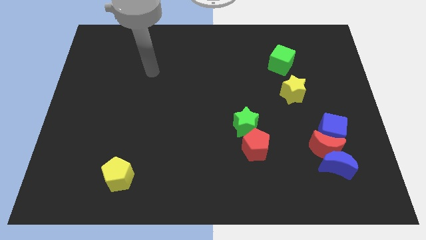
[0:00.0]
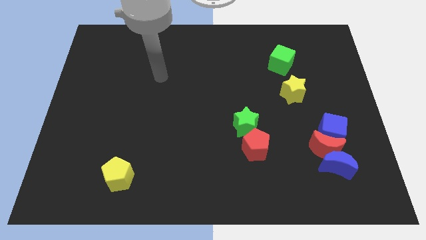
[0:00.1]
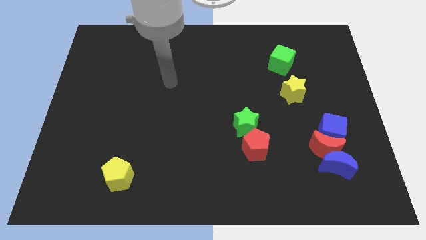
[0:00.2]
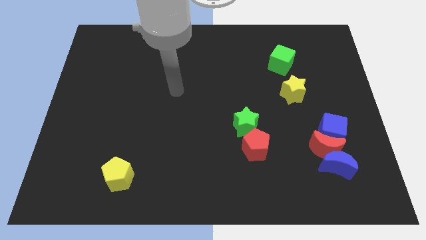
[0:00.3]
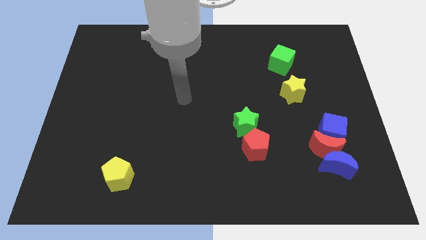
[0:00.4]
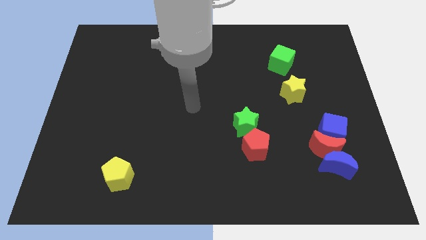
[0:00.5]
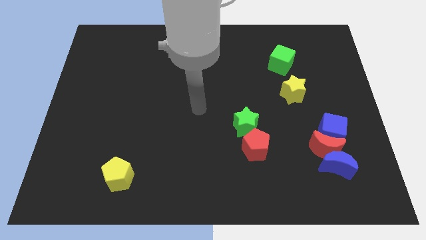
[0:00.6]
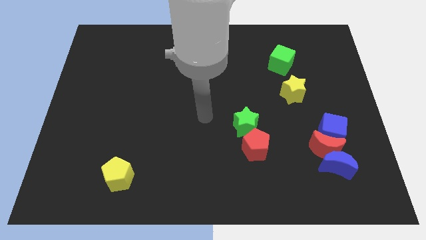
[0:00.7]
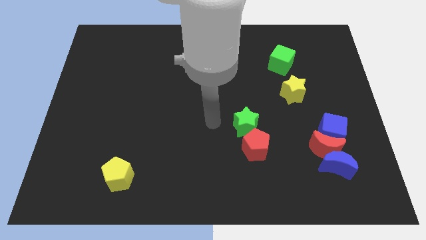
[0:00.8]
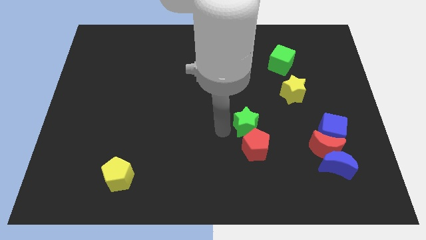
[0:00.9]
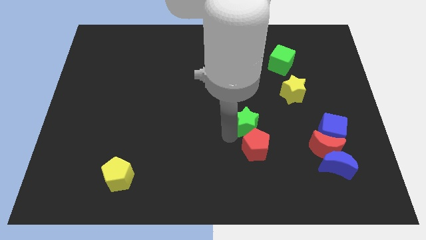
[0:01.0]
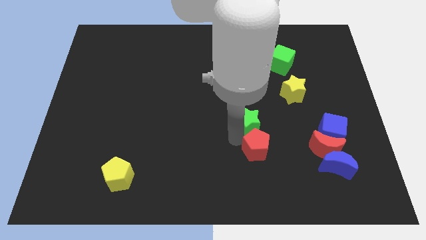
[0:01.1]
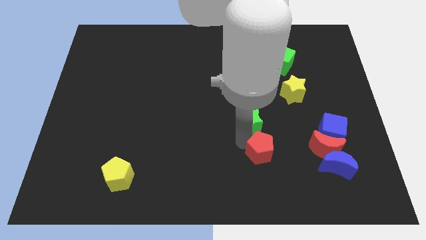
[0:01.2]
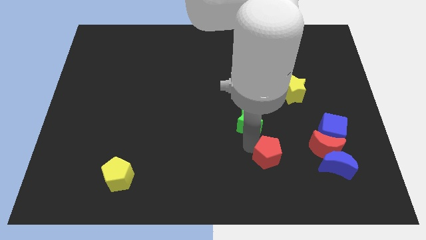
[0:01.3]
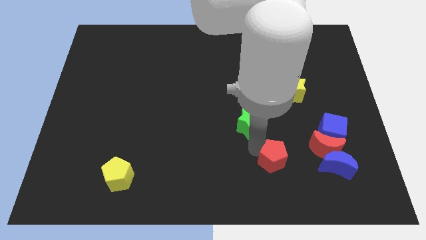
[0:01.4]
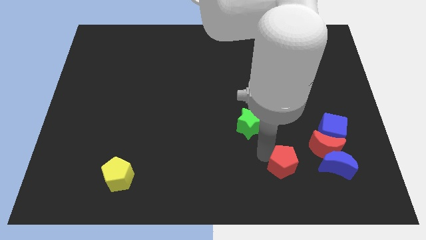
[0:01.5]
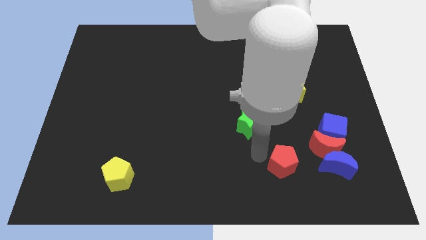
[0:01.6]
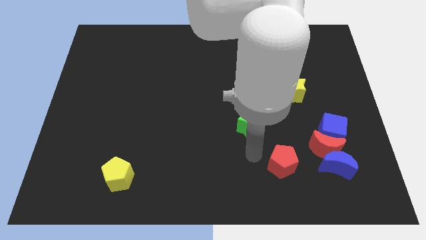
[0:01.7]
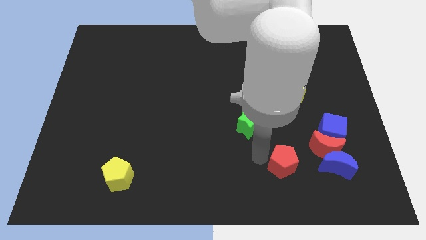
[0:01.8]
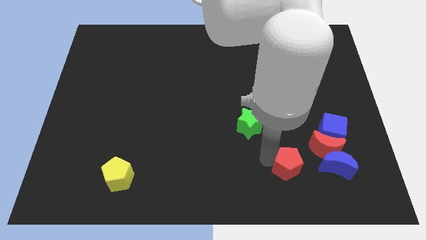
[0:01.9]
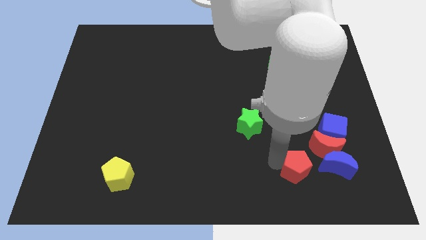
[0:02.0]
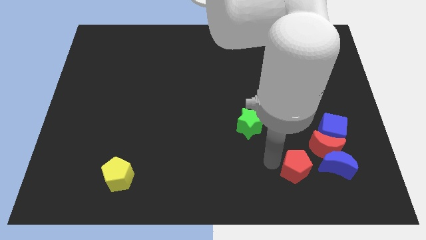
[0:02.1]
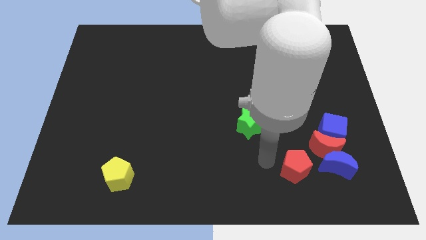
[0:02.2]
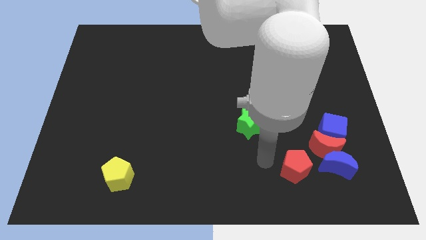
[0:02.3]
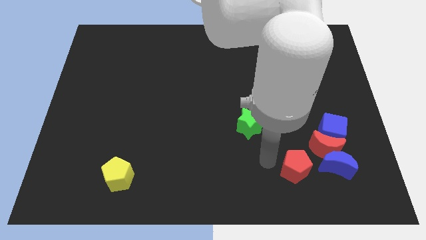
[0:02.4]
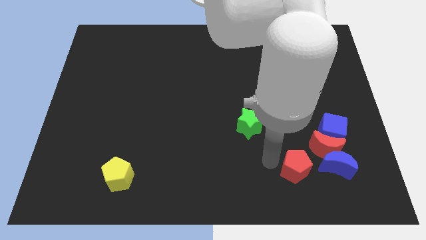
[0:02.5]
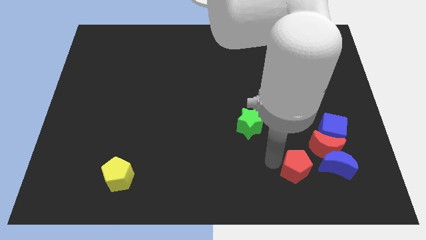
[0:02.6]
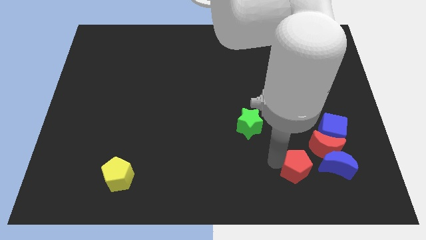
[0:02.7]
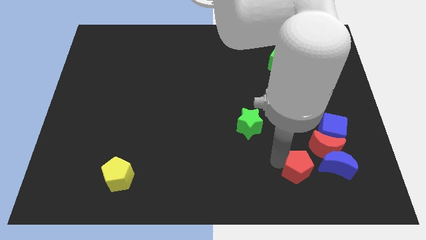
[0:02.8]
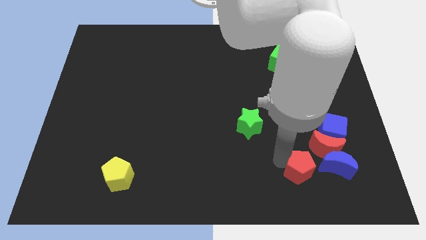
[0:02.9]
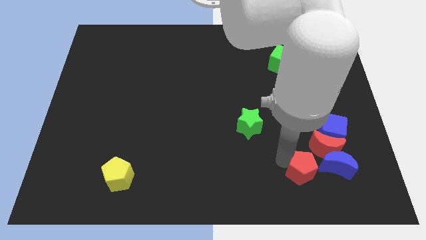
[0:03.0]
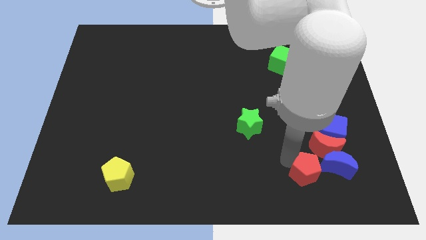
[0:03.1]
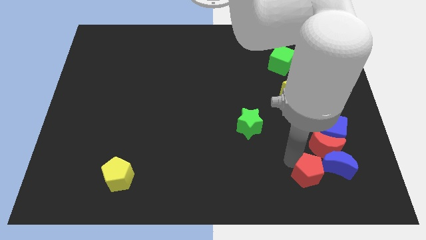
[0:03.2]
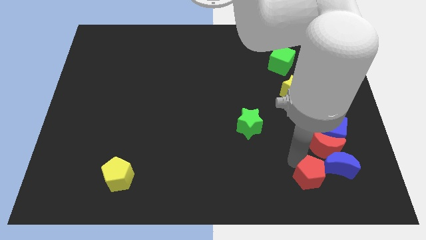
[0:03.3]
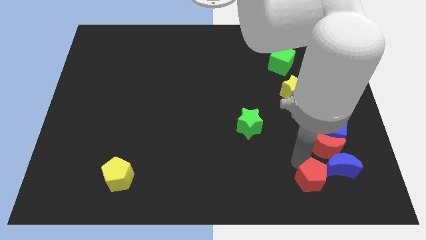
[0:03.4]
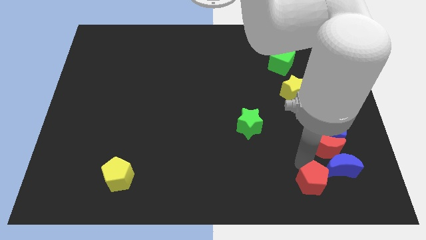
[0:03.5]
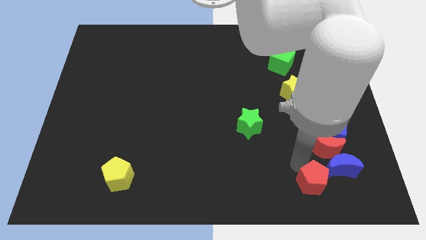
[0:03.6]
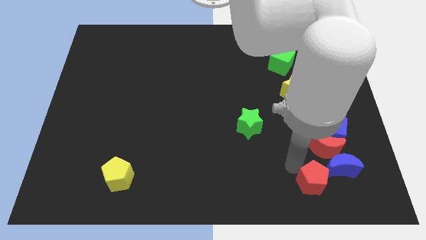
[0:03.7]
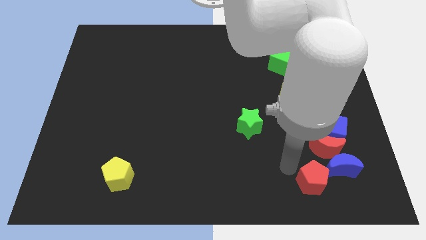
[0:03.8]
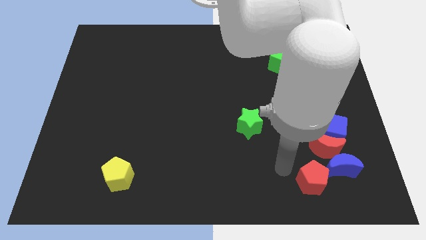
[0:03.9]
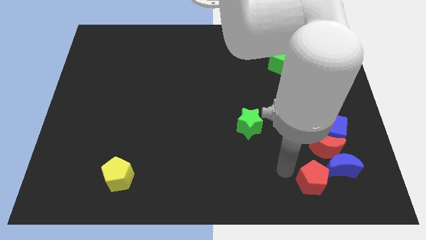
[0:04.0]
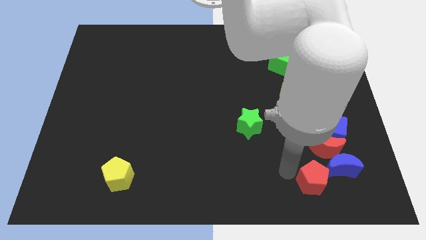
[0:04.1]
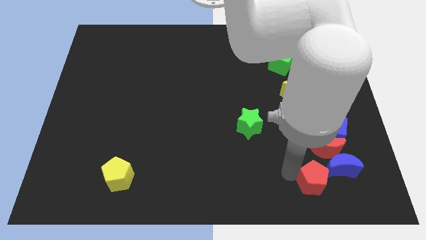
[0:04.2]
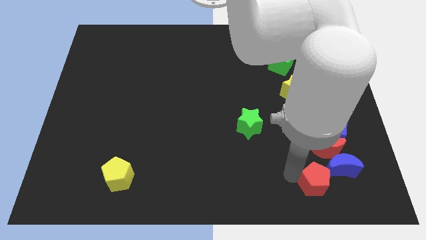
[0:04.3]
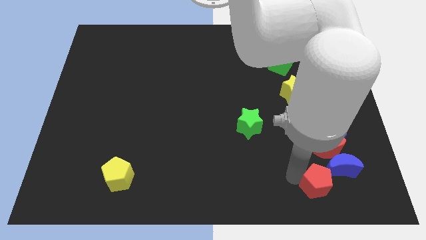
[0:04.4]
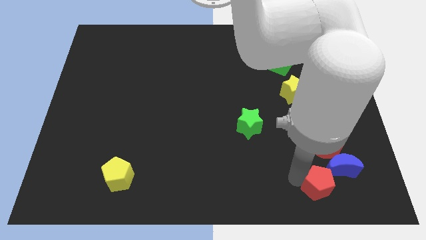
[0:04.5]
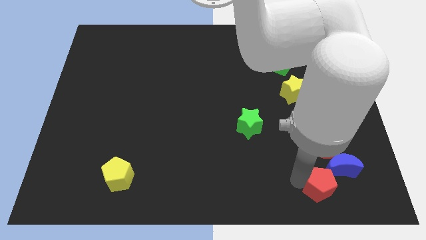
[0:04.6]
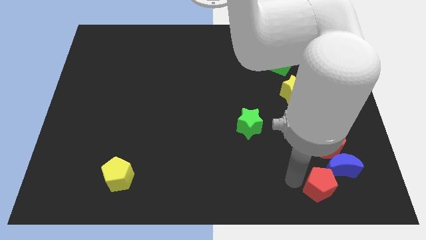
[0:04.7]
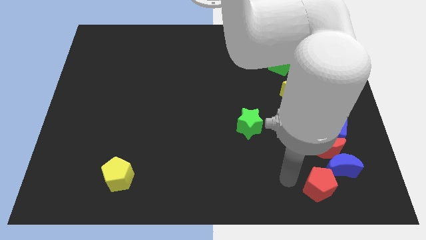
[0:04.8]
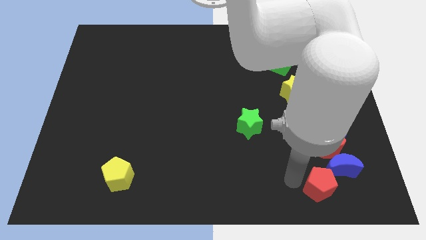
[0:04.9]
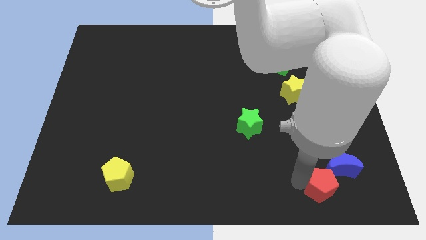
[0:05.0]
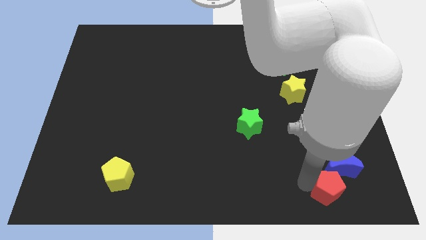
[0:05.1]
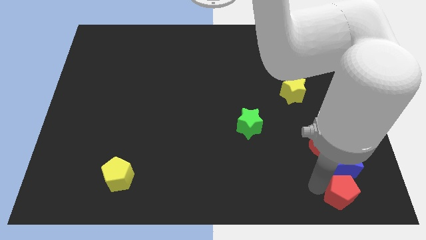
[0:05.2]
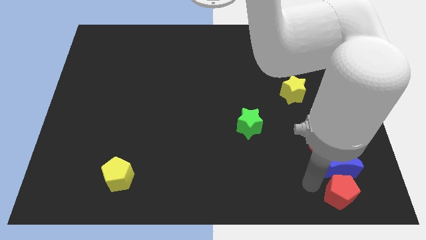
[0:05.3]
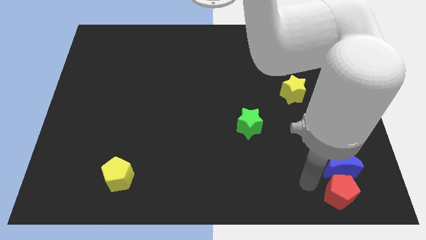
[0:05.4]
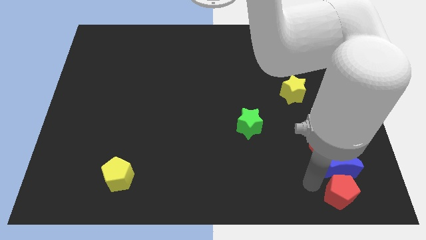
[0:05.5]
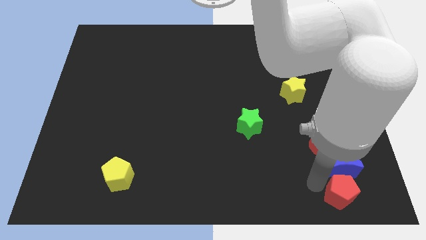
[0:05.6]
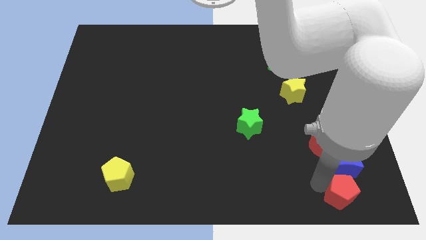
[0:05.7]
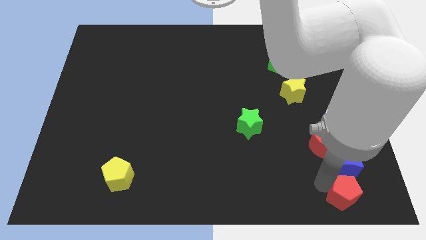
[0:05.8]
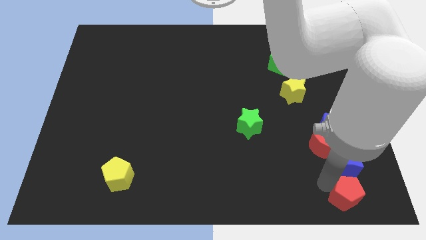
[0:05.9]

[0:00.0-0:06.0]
put the red pentagon to the bottom right of the board

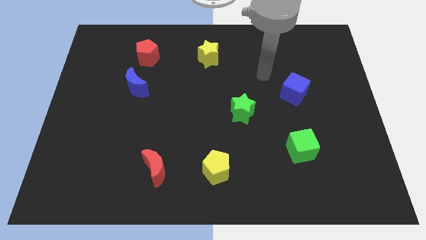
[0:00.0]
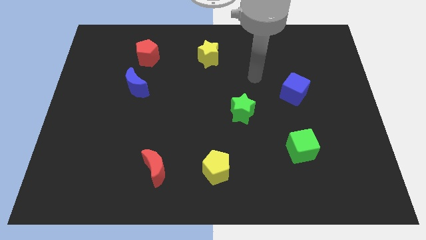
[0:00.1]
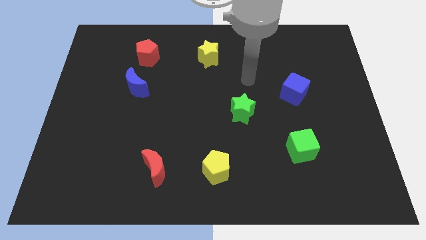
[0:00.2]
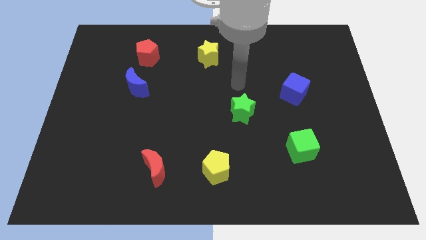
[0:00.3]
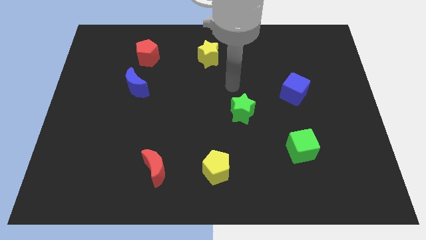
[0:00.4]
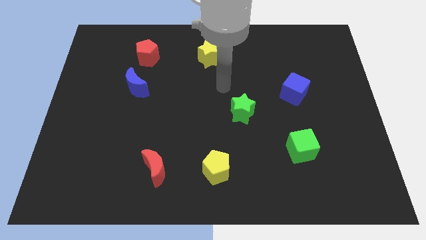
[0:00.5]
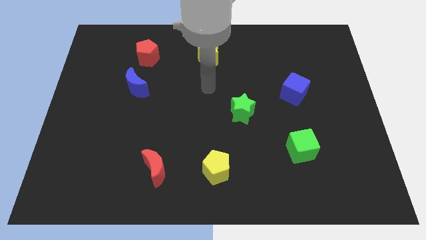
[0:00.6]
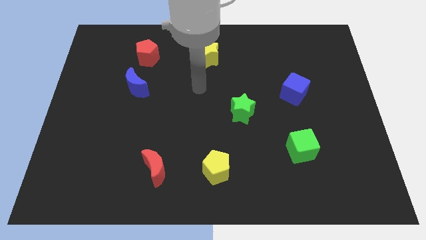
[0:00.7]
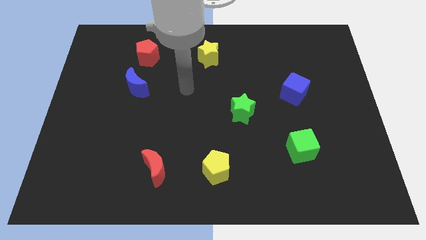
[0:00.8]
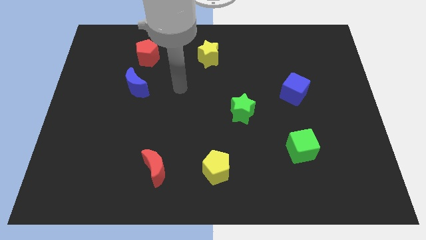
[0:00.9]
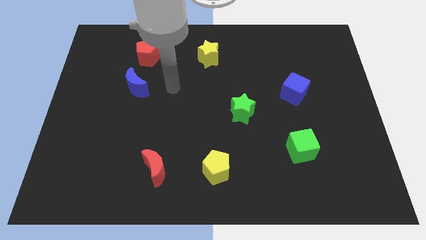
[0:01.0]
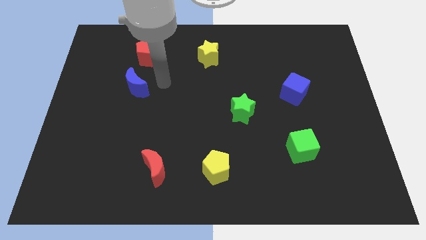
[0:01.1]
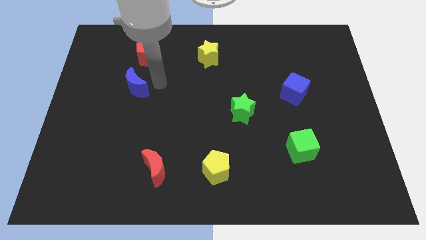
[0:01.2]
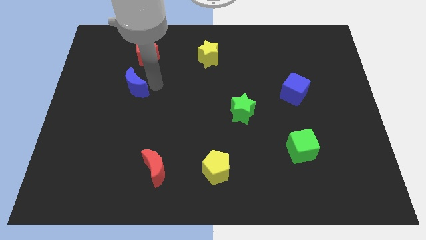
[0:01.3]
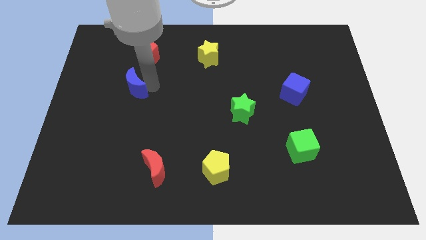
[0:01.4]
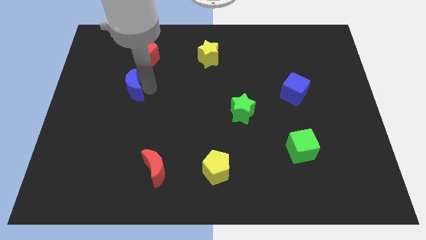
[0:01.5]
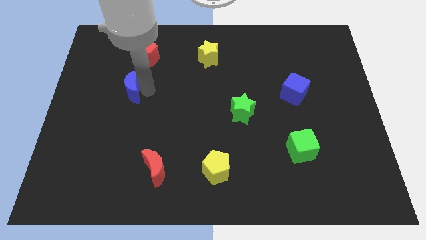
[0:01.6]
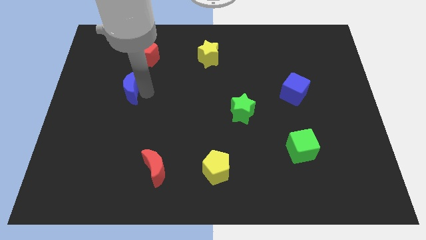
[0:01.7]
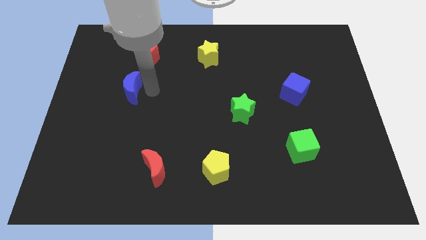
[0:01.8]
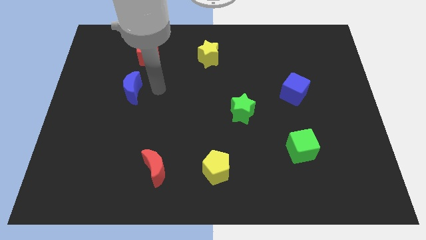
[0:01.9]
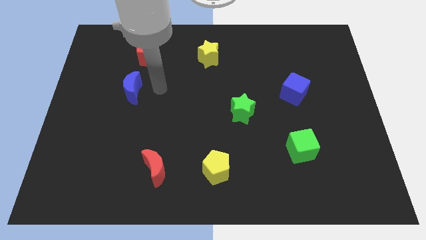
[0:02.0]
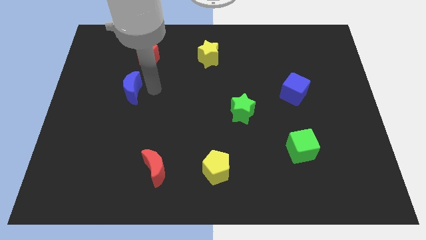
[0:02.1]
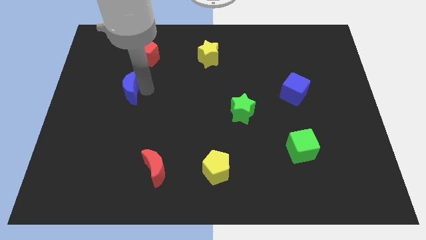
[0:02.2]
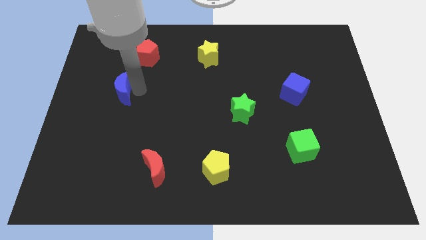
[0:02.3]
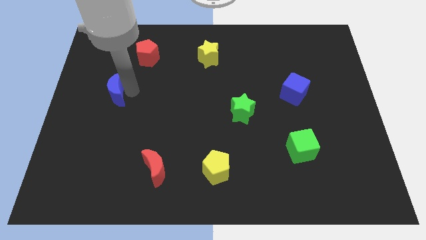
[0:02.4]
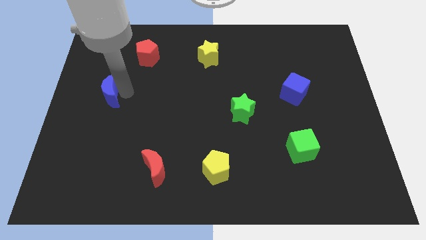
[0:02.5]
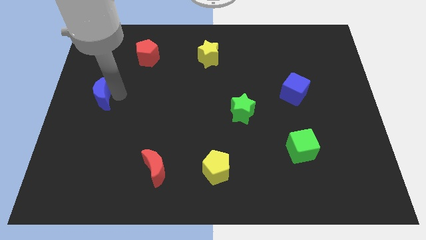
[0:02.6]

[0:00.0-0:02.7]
put the blue moon to the center left
